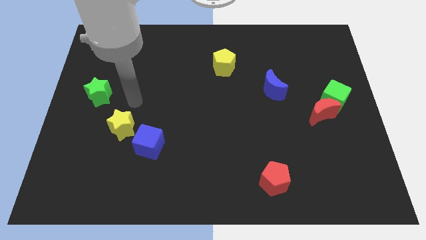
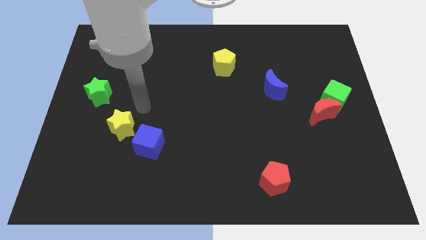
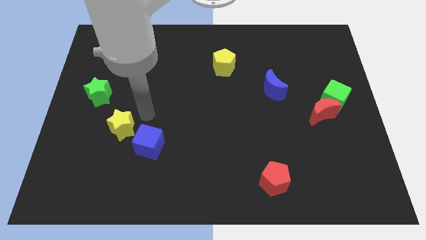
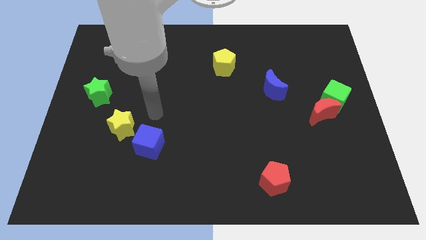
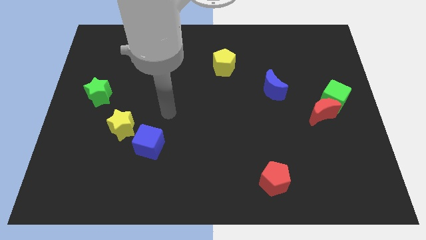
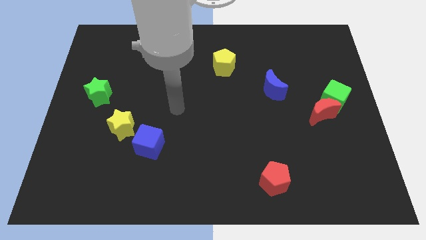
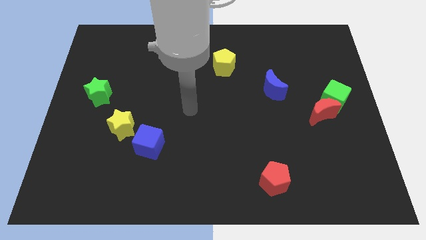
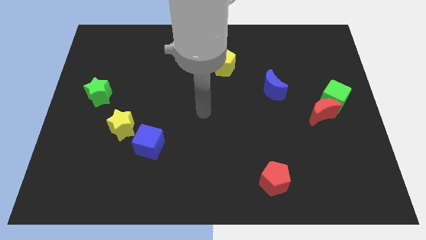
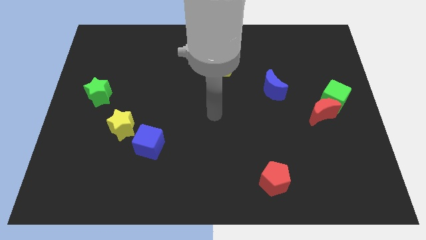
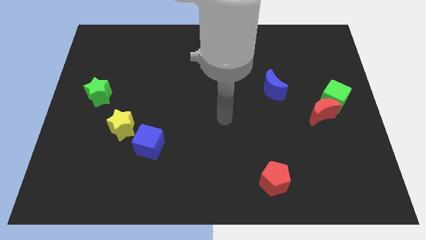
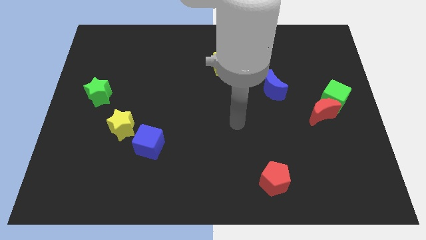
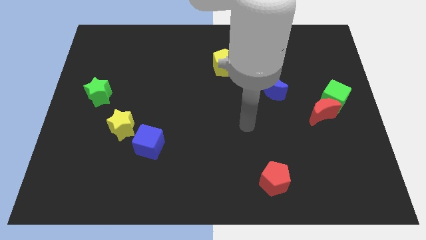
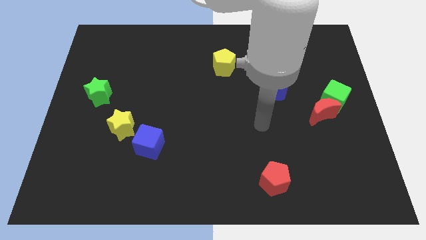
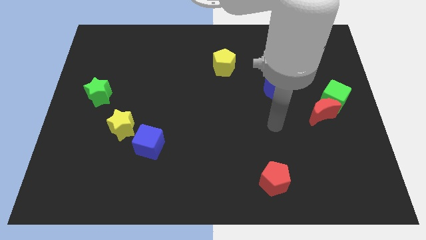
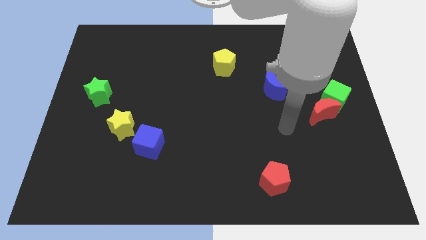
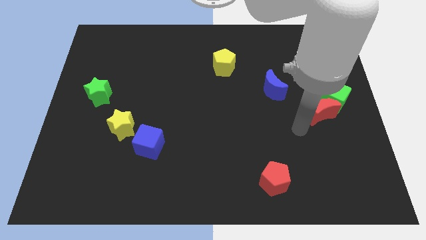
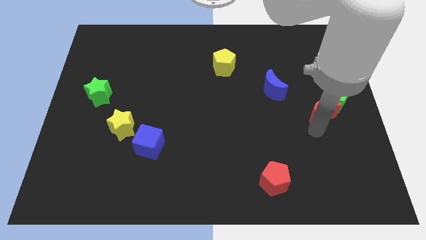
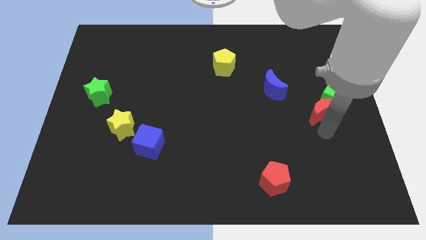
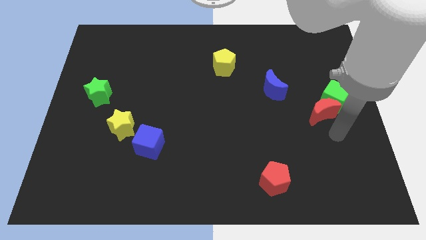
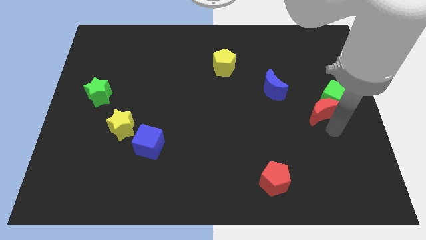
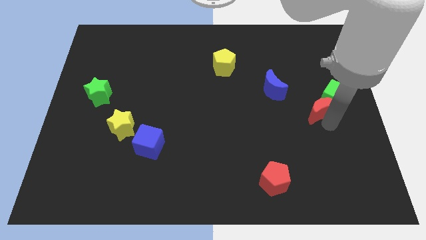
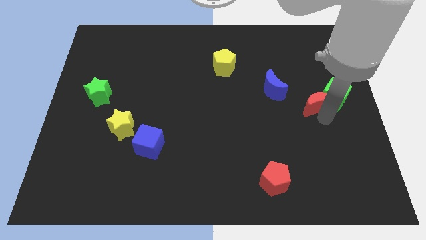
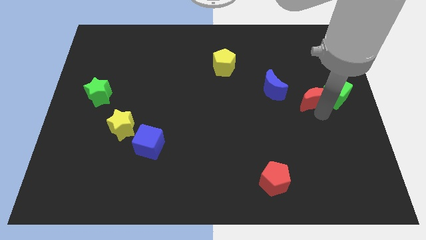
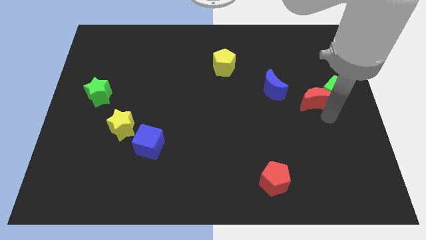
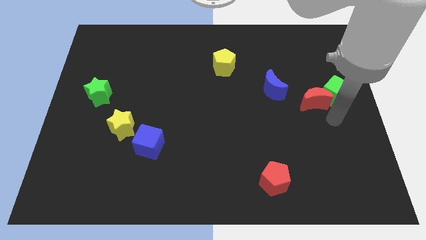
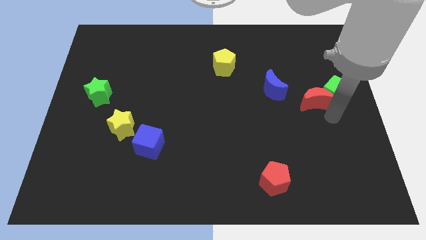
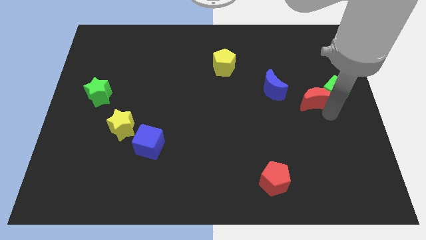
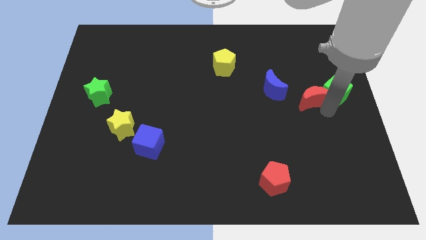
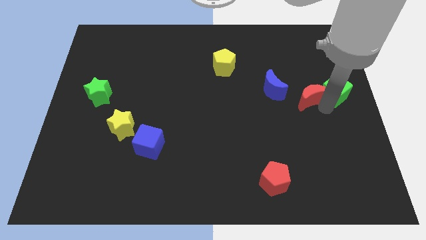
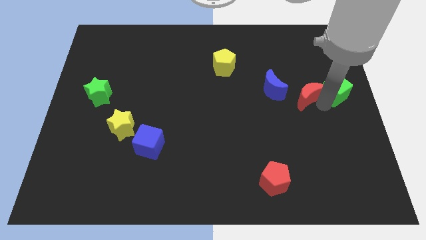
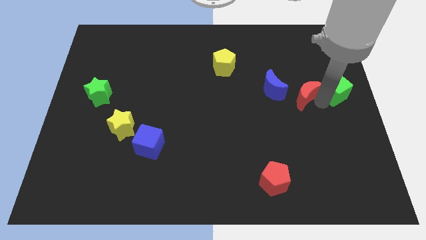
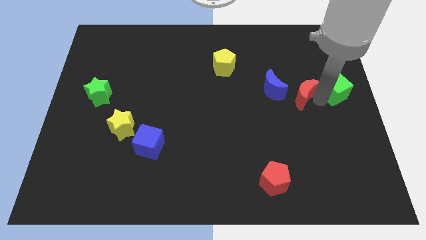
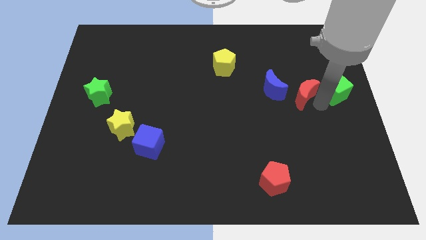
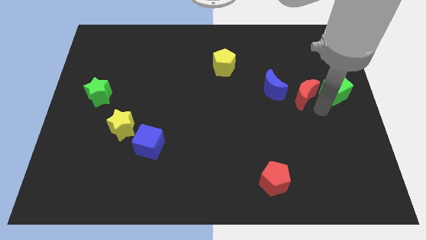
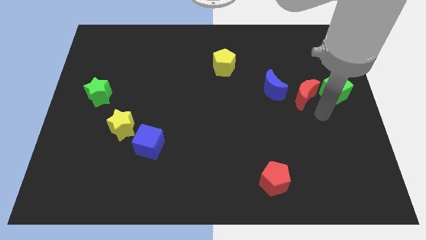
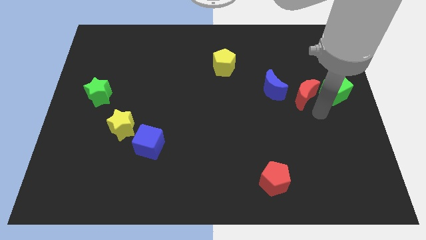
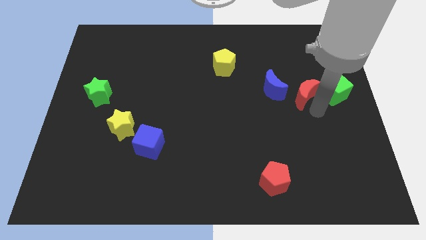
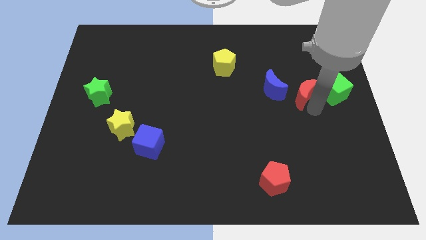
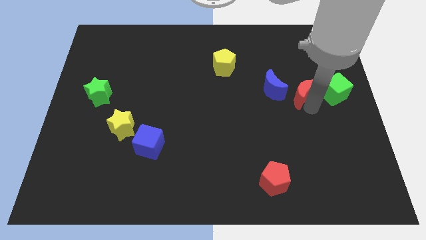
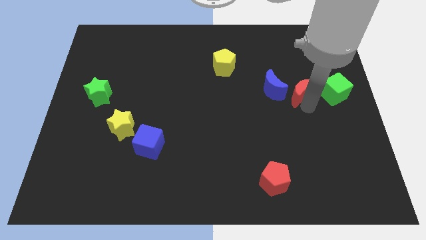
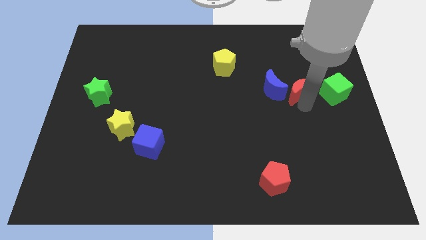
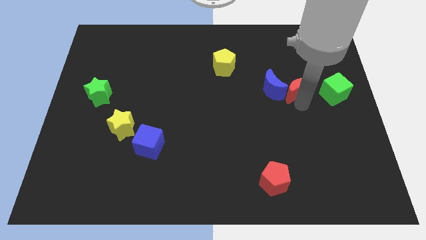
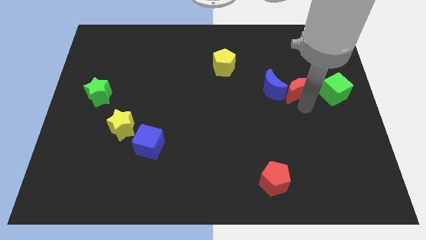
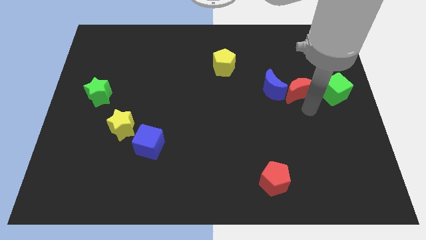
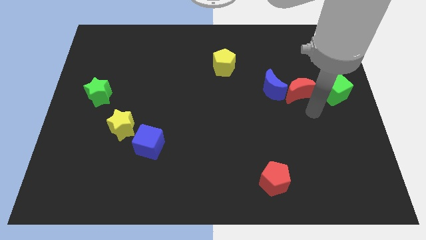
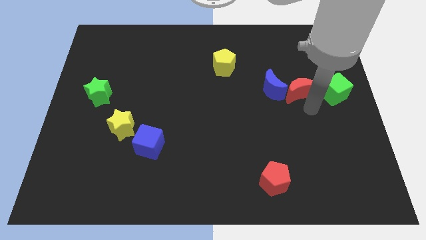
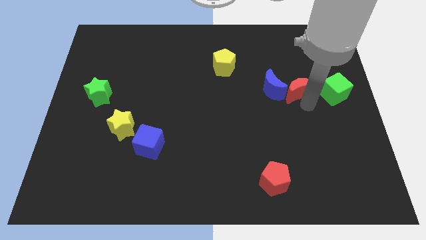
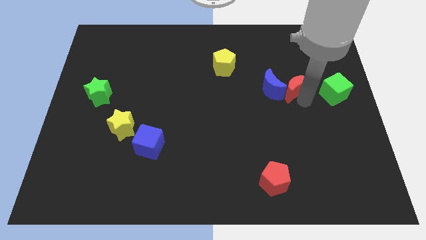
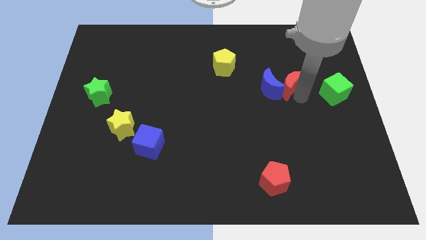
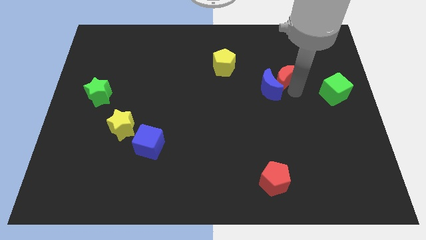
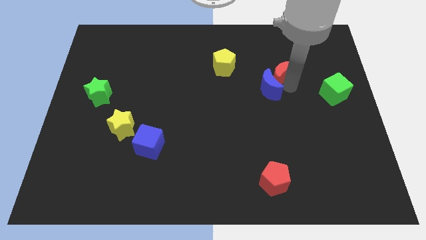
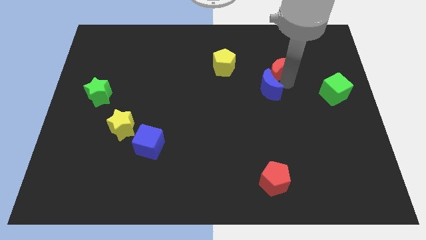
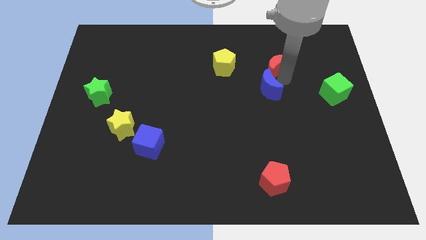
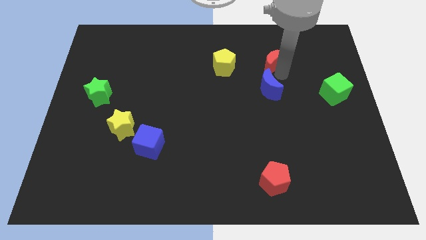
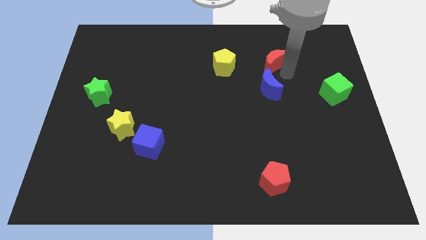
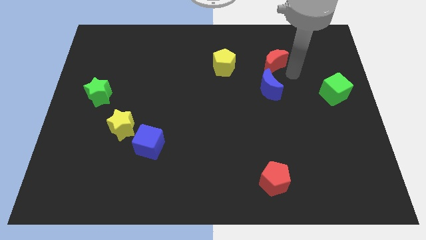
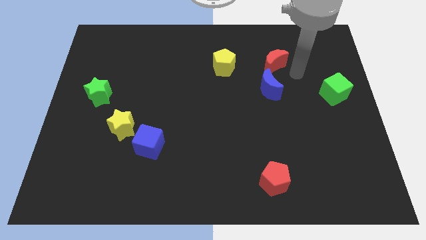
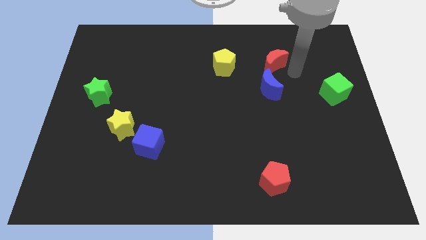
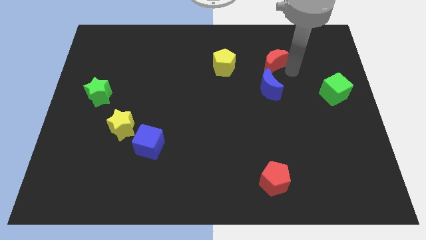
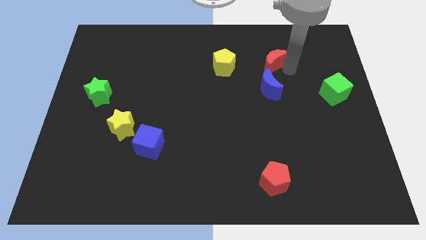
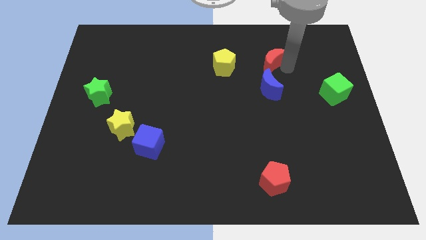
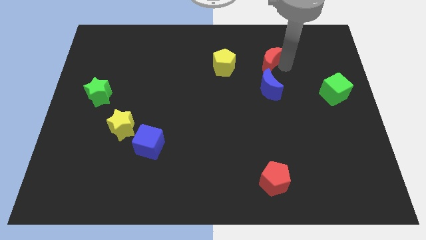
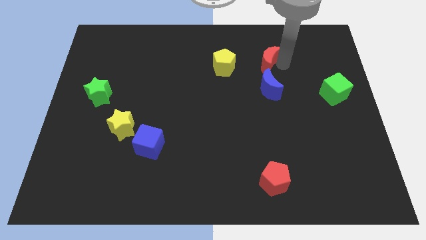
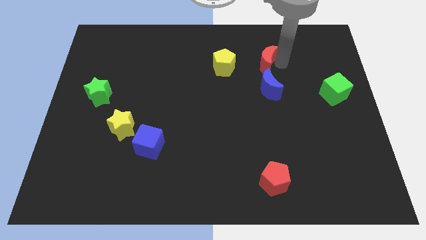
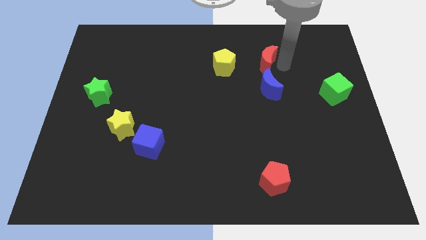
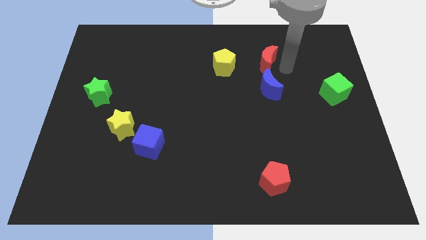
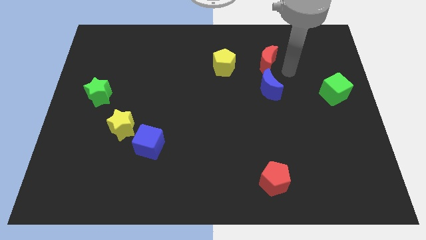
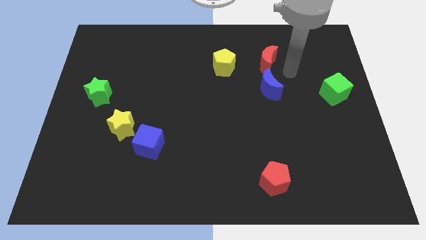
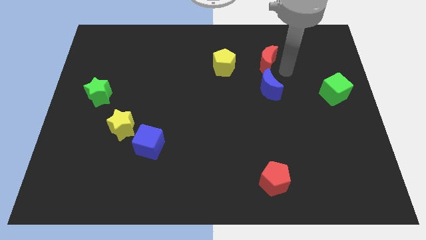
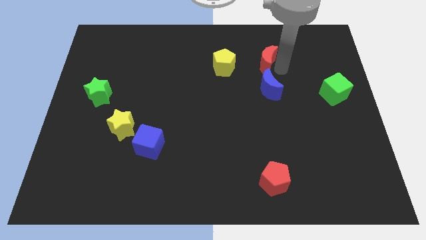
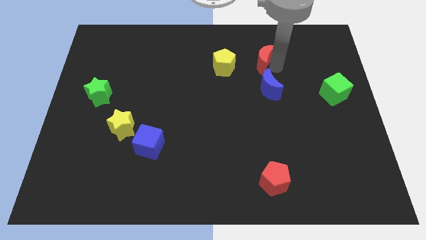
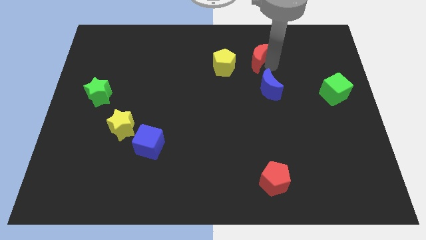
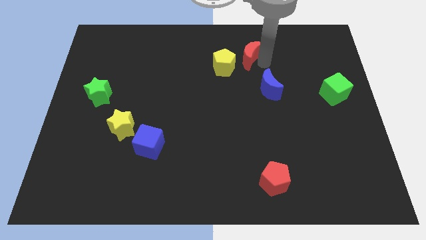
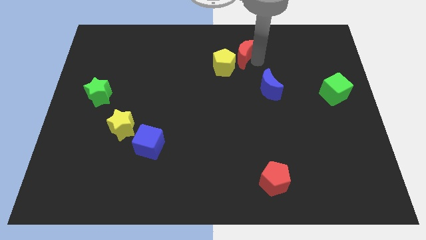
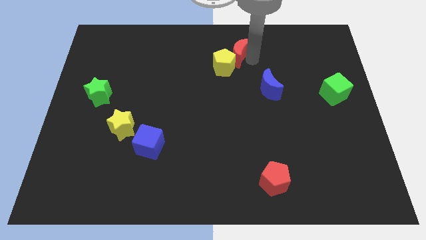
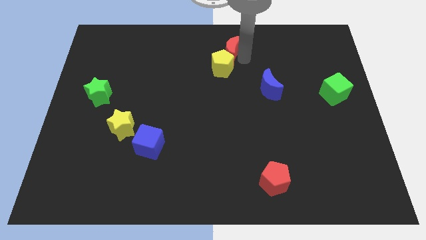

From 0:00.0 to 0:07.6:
move the red moon to the top

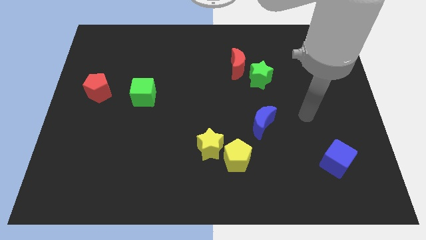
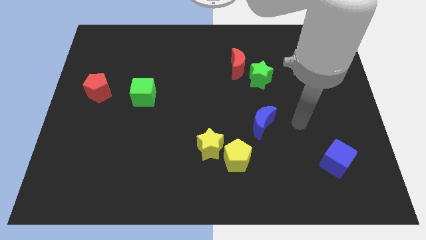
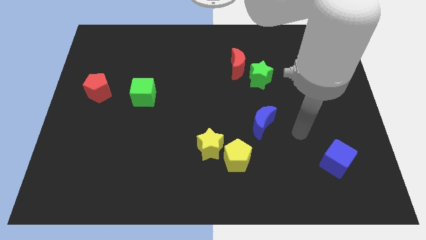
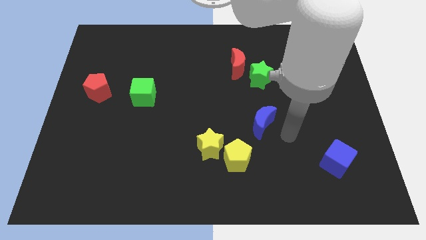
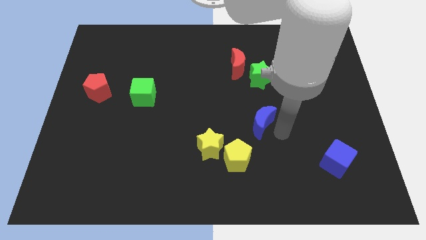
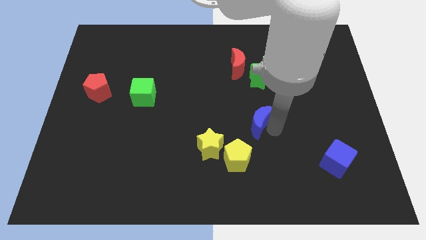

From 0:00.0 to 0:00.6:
put the blue moon to the middle
